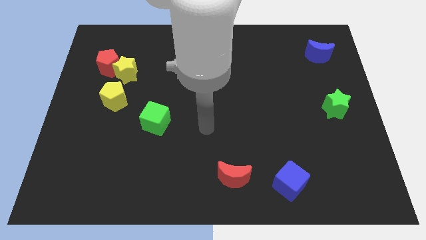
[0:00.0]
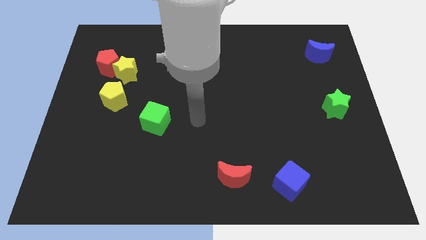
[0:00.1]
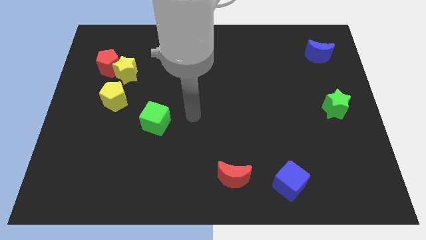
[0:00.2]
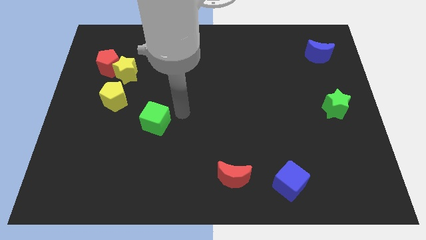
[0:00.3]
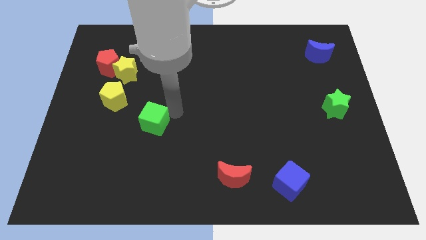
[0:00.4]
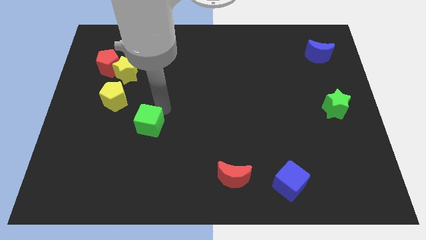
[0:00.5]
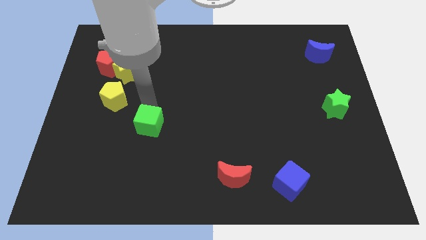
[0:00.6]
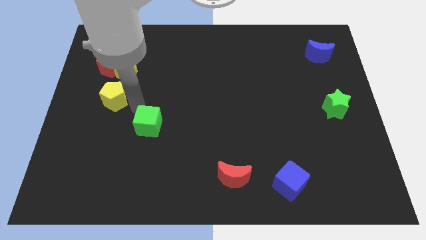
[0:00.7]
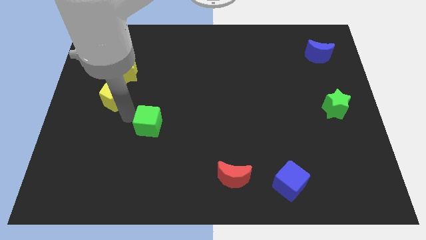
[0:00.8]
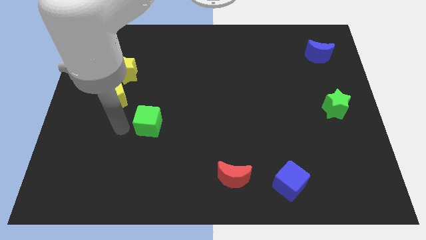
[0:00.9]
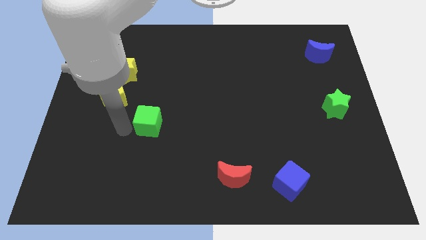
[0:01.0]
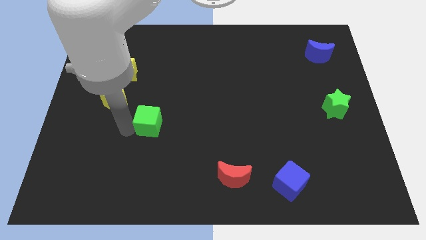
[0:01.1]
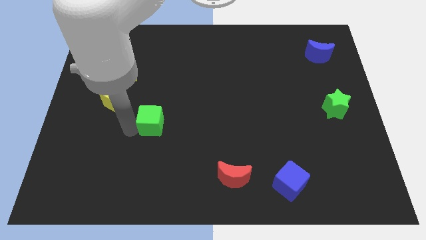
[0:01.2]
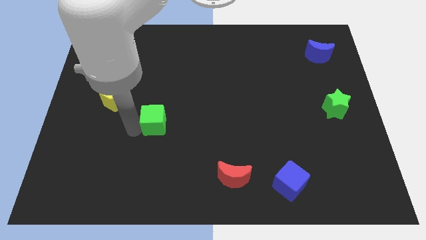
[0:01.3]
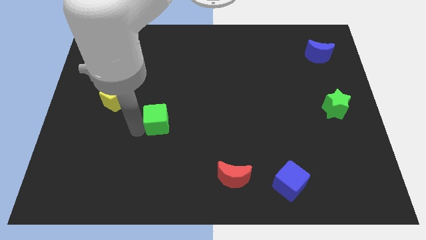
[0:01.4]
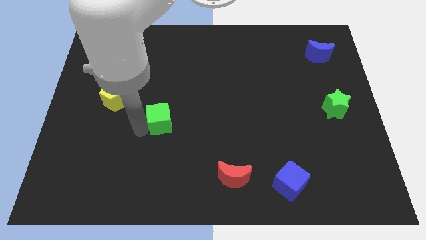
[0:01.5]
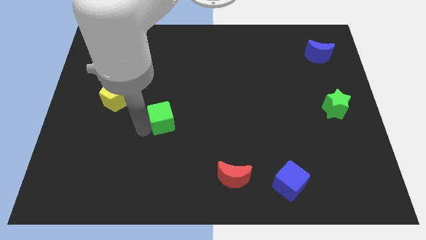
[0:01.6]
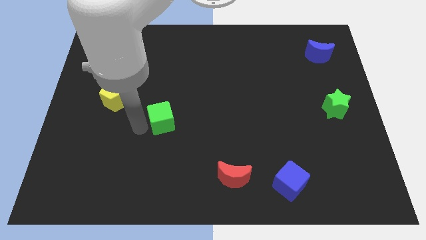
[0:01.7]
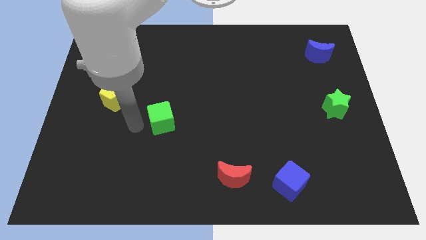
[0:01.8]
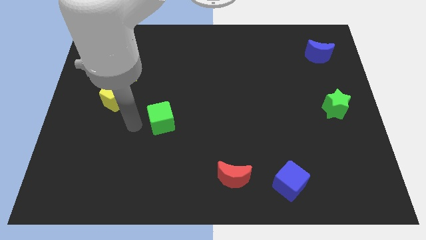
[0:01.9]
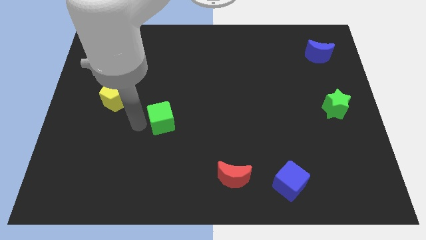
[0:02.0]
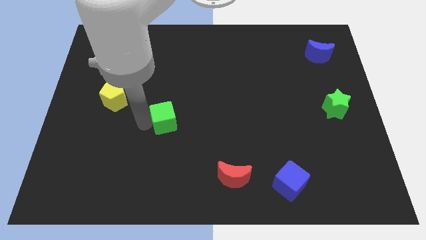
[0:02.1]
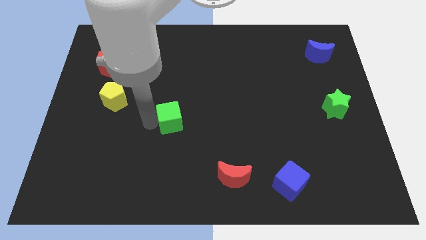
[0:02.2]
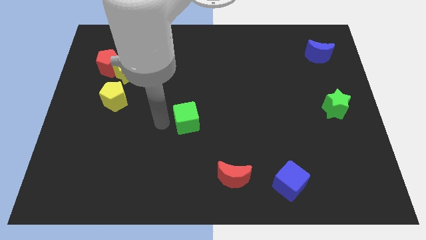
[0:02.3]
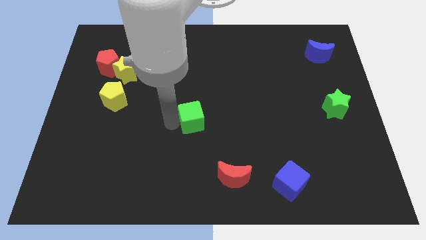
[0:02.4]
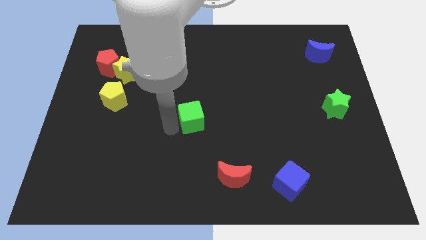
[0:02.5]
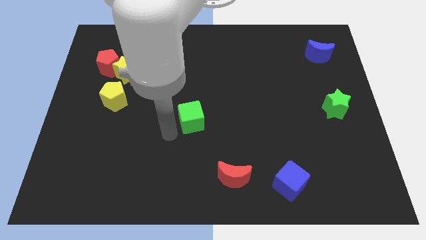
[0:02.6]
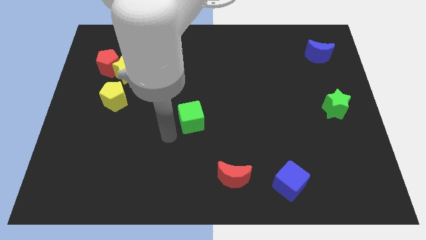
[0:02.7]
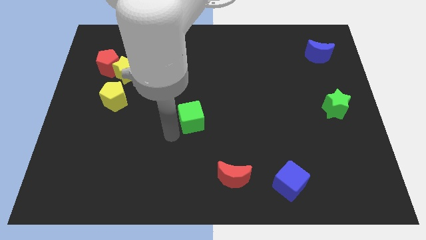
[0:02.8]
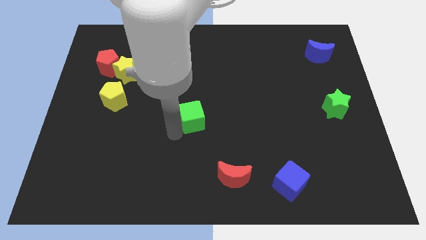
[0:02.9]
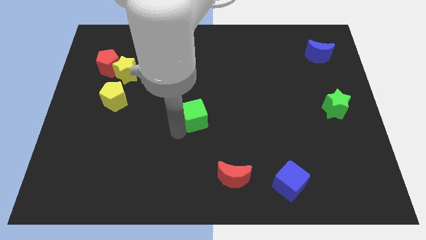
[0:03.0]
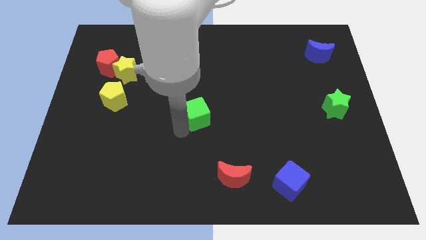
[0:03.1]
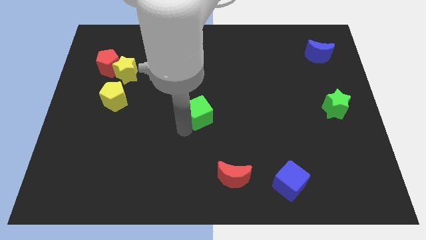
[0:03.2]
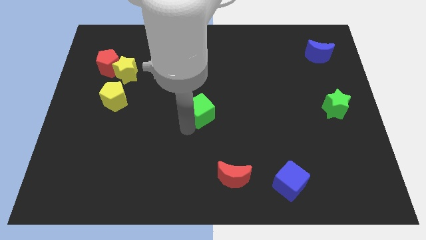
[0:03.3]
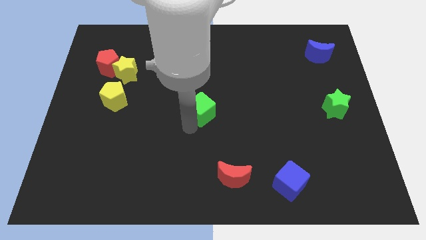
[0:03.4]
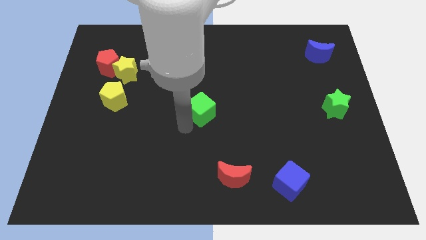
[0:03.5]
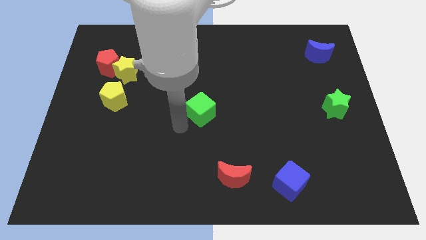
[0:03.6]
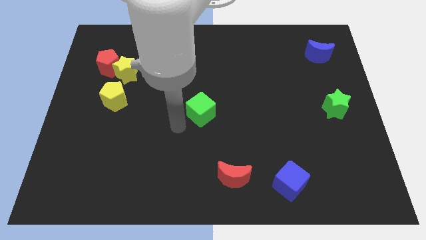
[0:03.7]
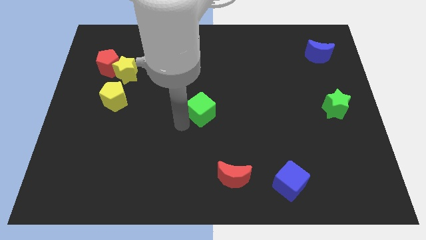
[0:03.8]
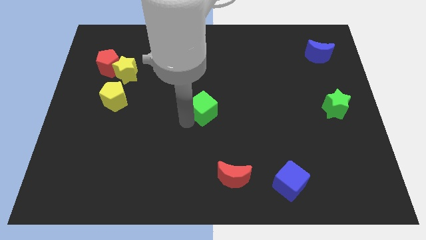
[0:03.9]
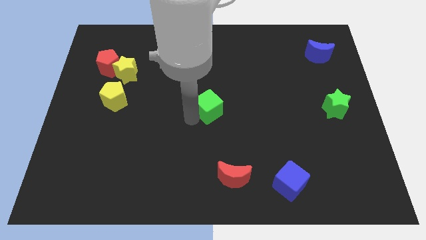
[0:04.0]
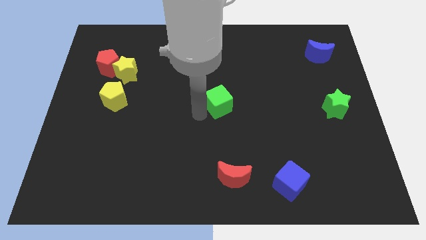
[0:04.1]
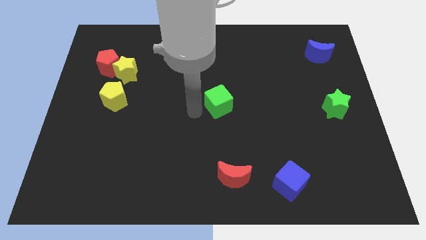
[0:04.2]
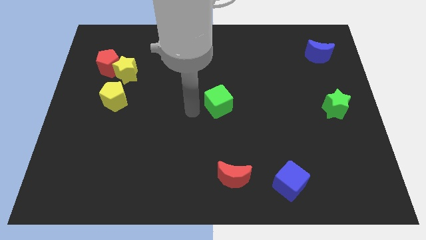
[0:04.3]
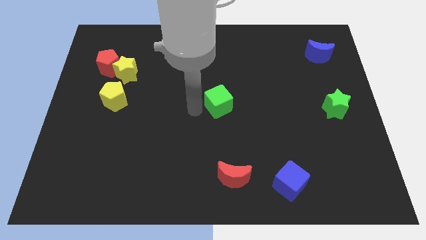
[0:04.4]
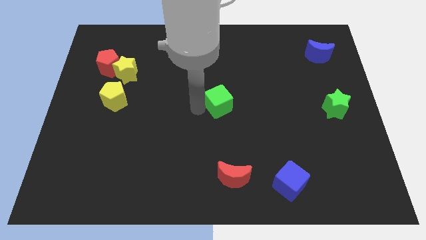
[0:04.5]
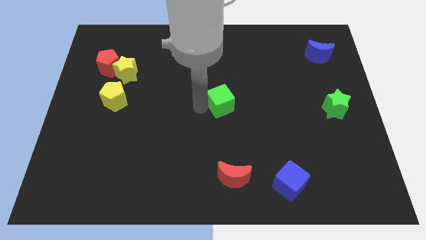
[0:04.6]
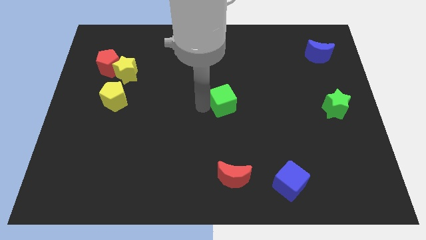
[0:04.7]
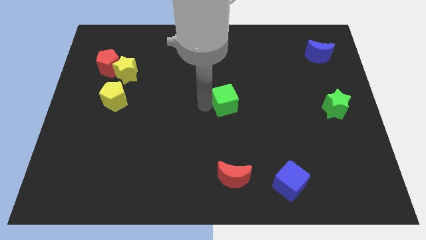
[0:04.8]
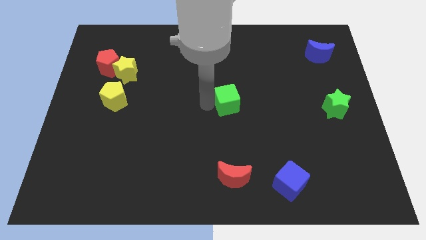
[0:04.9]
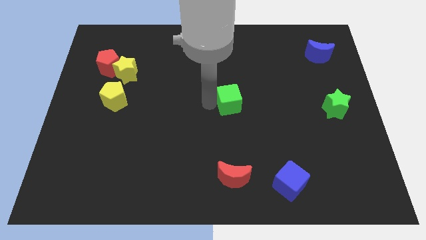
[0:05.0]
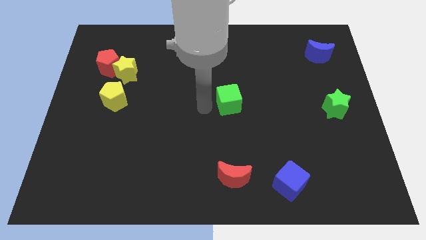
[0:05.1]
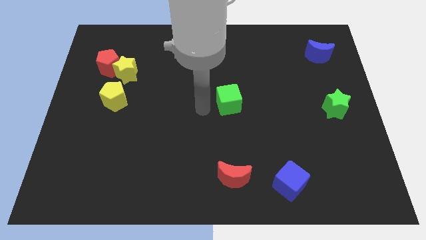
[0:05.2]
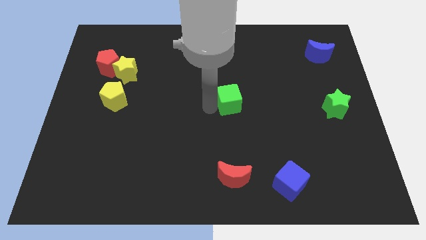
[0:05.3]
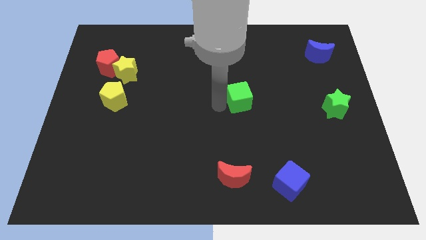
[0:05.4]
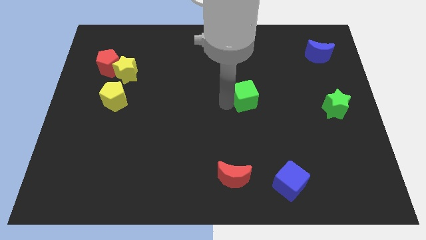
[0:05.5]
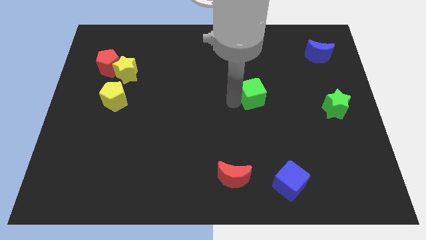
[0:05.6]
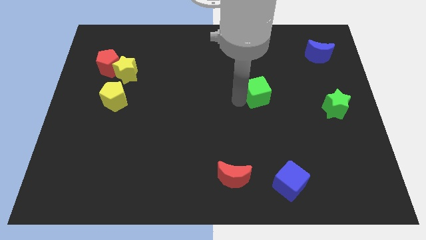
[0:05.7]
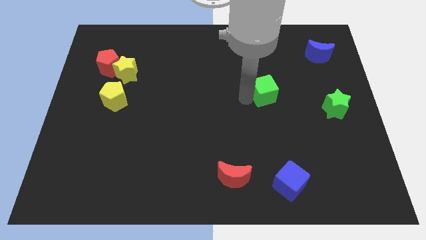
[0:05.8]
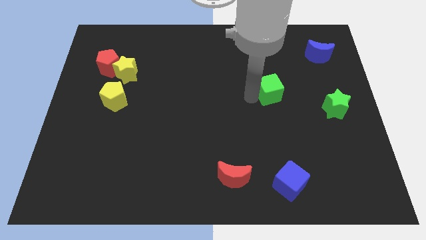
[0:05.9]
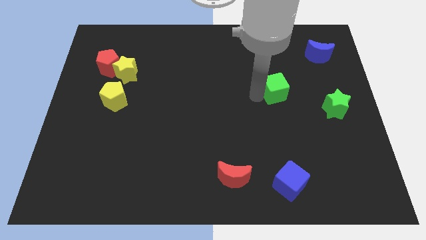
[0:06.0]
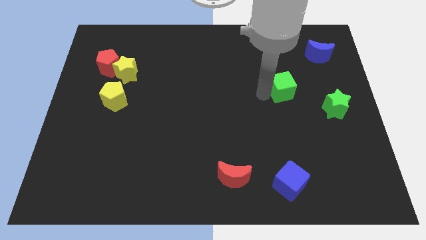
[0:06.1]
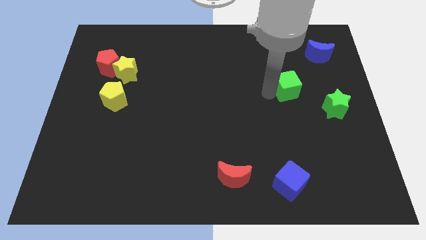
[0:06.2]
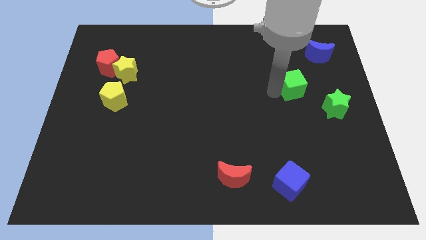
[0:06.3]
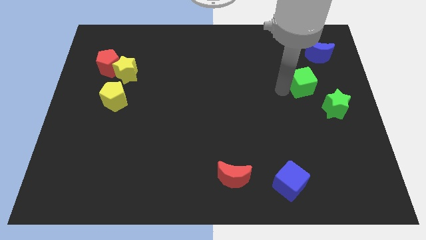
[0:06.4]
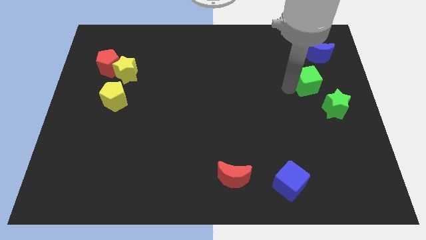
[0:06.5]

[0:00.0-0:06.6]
push the green cube to the bottom of the blue moon

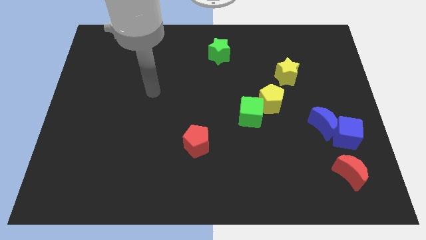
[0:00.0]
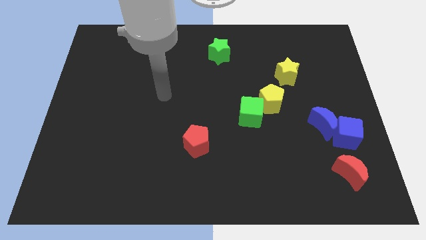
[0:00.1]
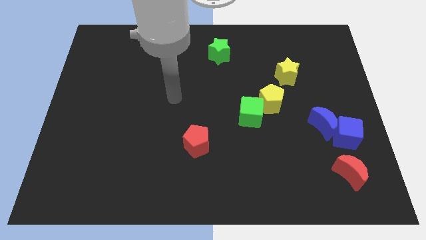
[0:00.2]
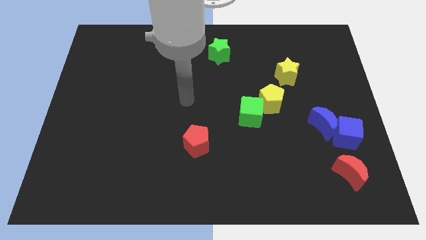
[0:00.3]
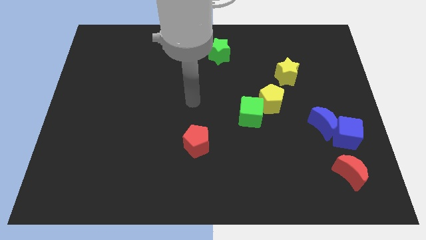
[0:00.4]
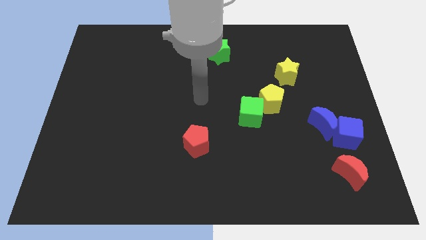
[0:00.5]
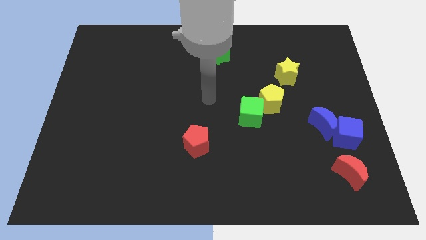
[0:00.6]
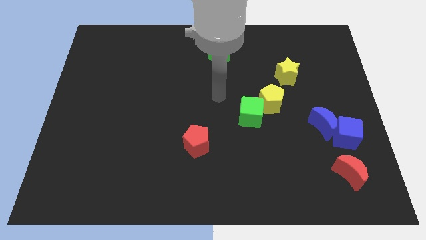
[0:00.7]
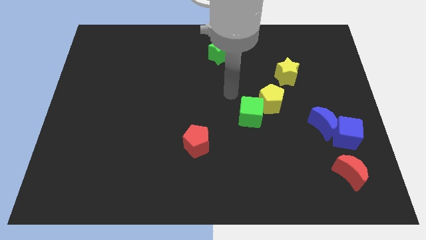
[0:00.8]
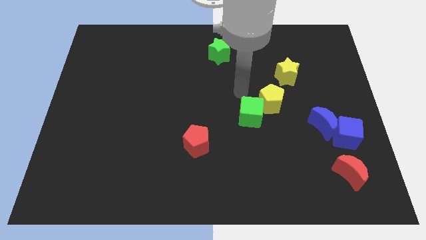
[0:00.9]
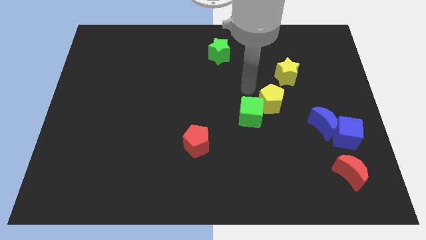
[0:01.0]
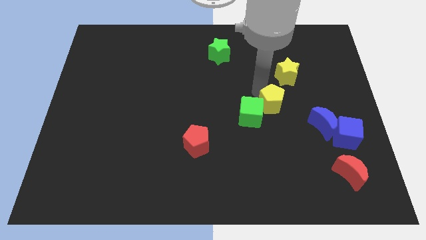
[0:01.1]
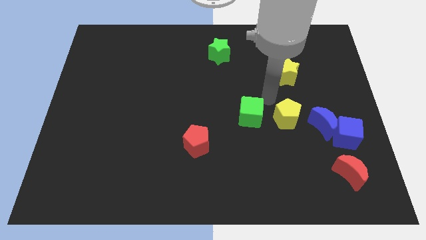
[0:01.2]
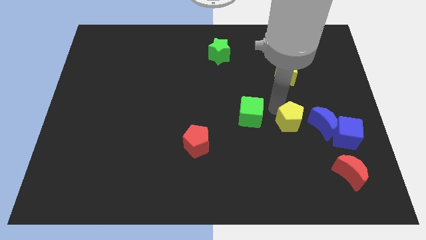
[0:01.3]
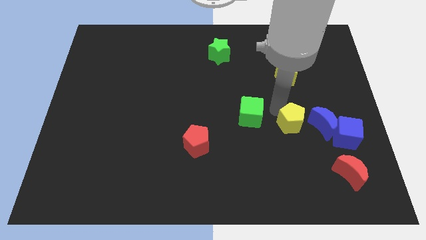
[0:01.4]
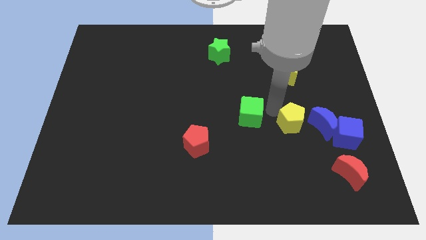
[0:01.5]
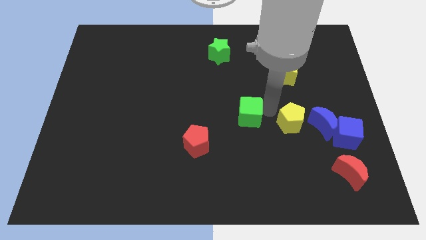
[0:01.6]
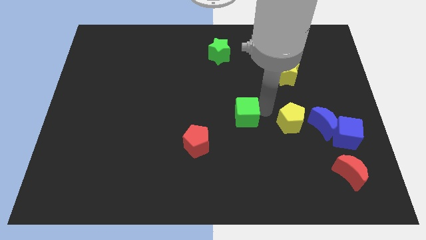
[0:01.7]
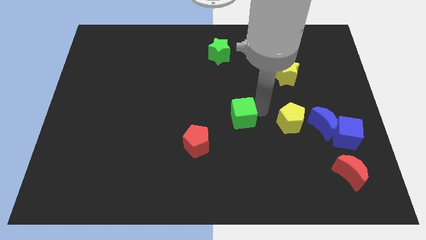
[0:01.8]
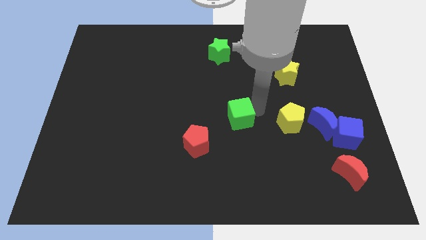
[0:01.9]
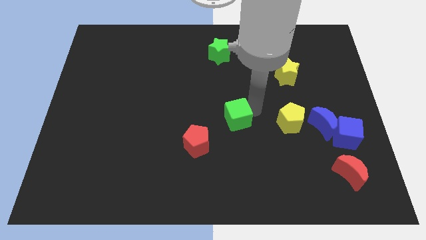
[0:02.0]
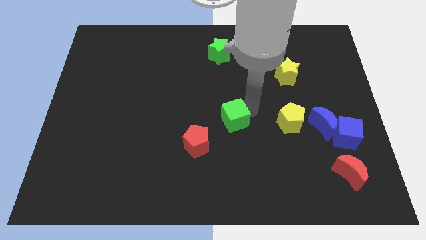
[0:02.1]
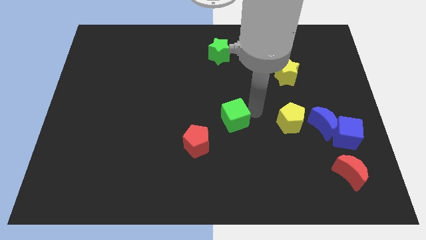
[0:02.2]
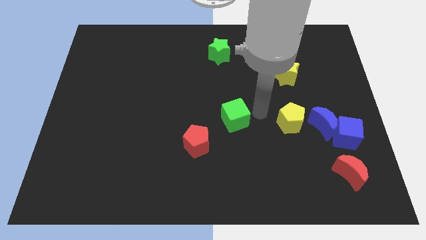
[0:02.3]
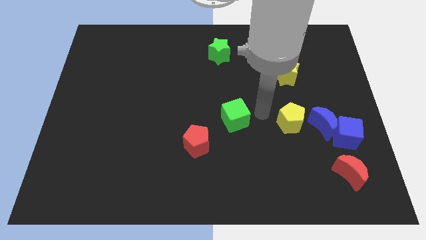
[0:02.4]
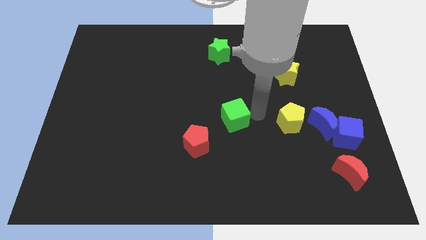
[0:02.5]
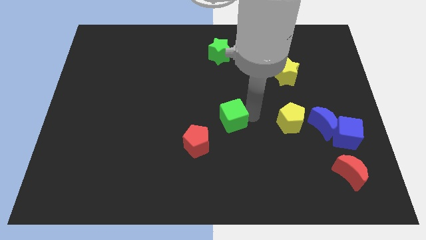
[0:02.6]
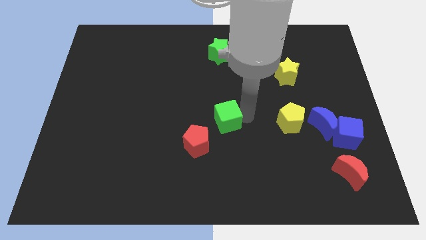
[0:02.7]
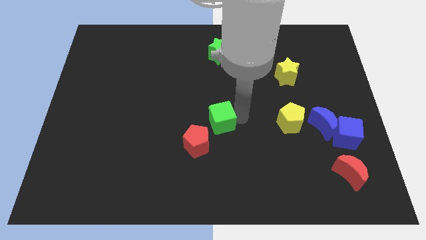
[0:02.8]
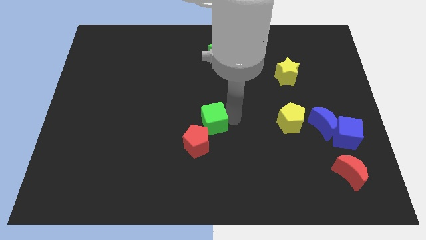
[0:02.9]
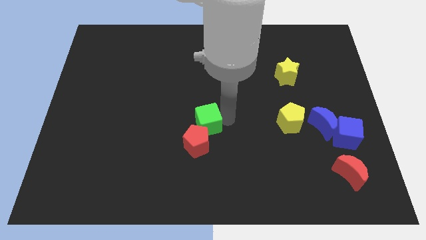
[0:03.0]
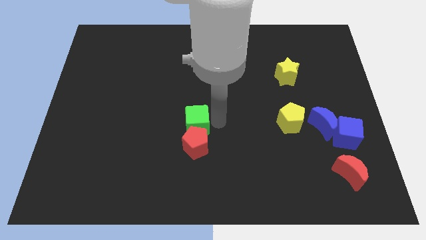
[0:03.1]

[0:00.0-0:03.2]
put the green cube to the top left side of the red pentagon
